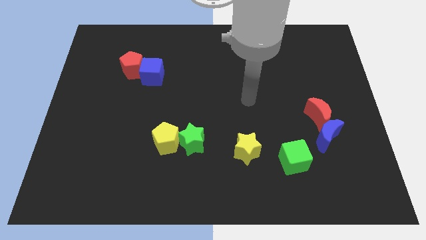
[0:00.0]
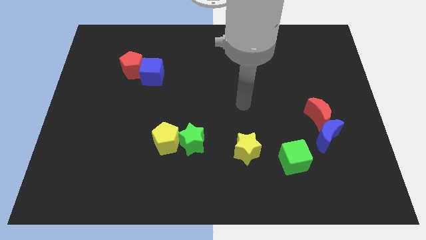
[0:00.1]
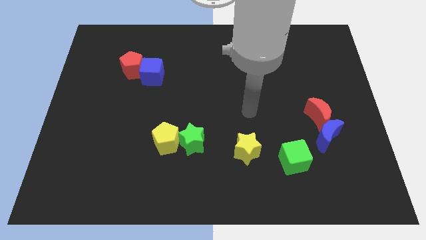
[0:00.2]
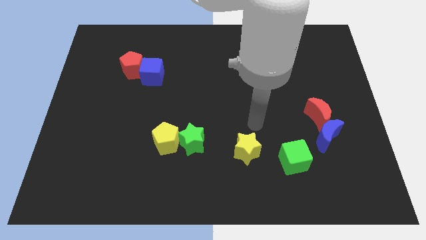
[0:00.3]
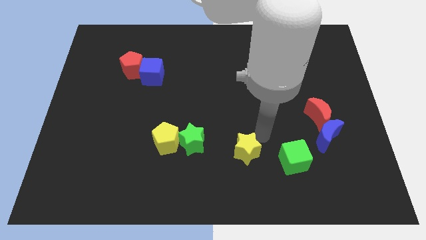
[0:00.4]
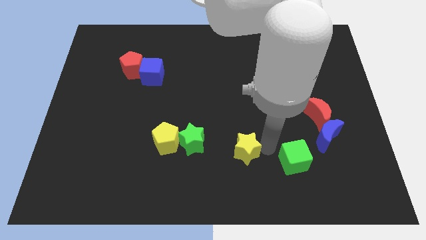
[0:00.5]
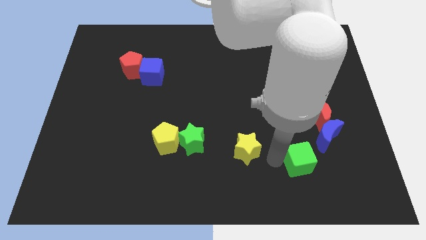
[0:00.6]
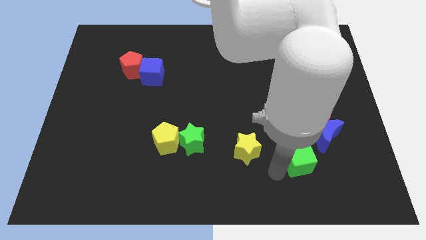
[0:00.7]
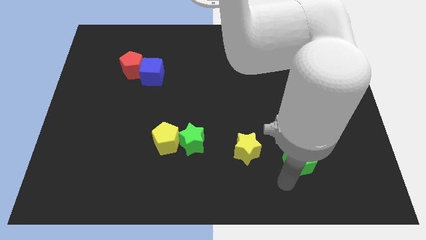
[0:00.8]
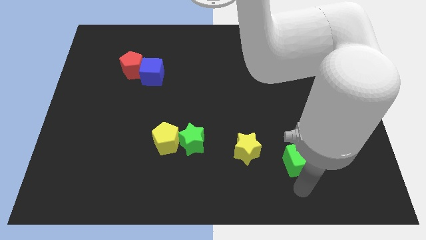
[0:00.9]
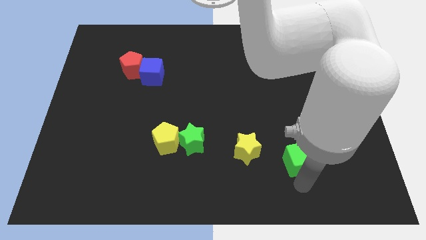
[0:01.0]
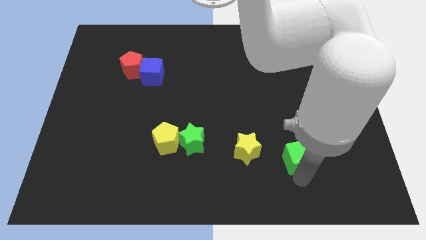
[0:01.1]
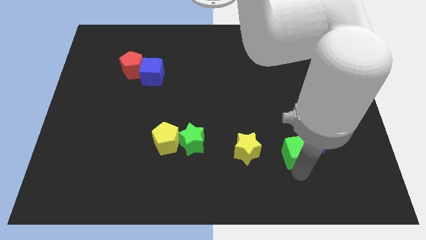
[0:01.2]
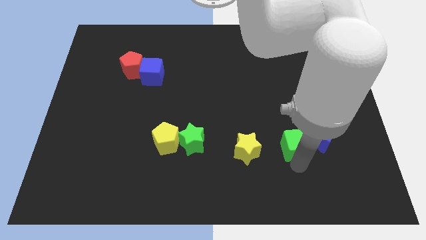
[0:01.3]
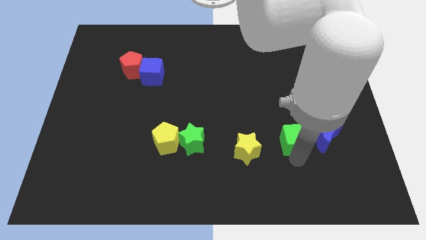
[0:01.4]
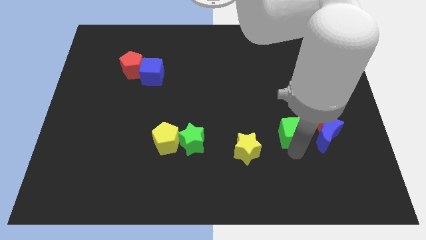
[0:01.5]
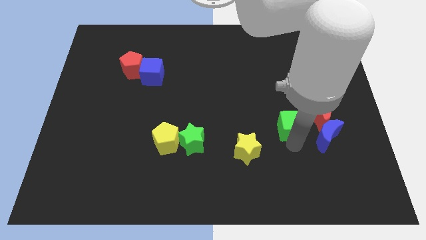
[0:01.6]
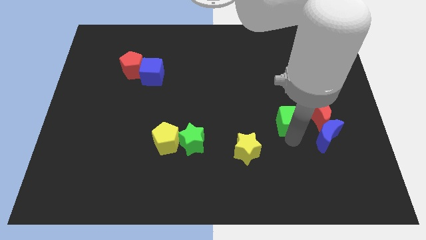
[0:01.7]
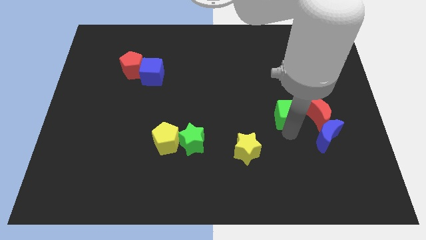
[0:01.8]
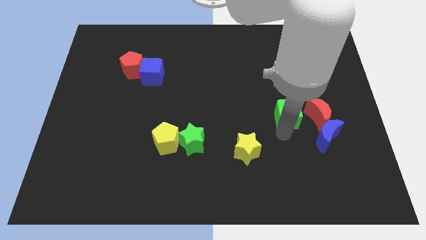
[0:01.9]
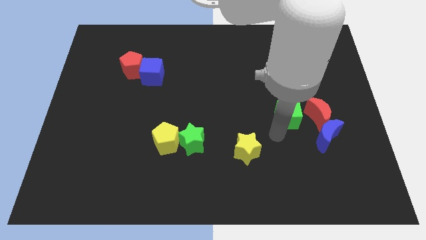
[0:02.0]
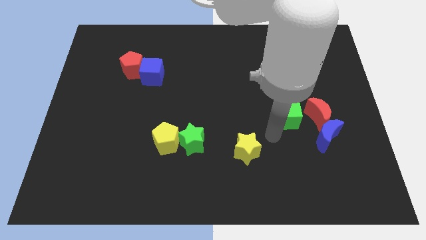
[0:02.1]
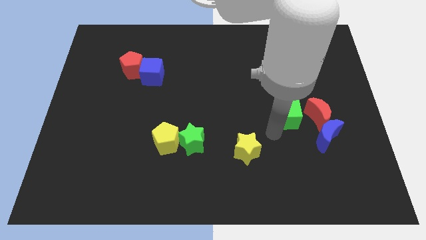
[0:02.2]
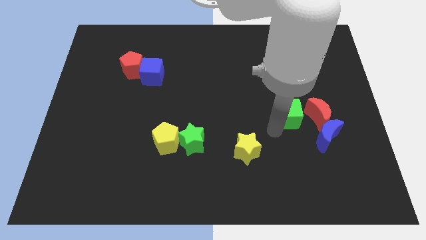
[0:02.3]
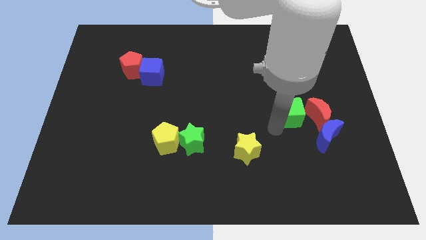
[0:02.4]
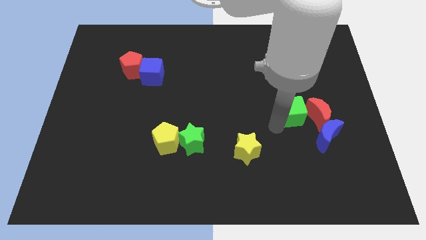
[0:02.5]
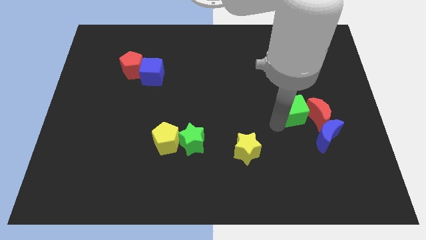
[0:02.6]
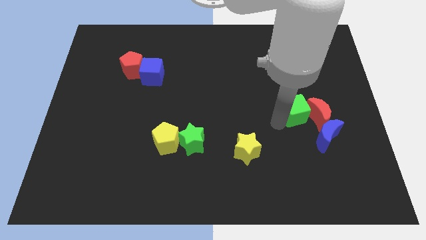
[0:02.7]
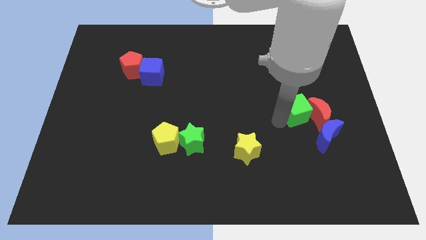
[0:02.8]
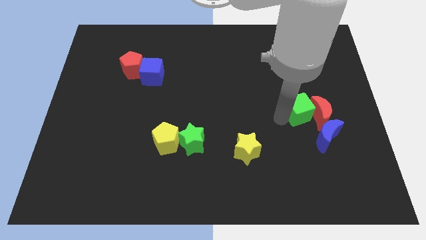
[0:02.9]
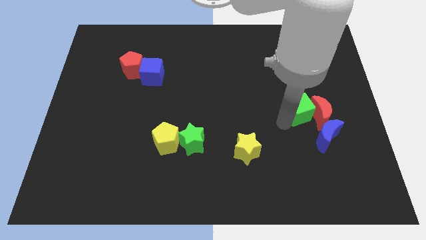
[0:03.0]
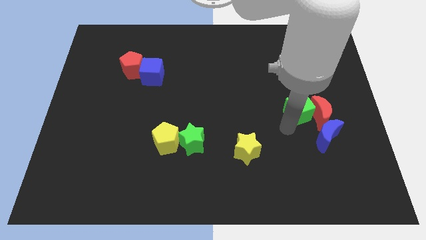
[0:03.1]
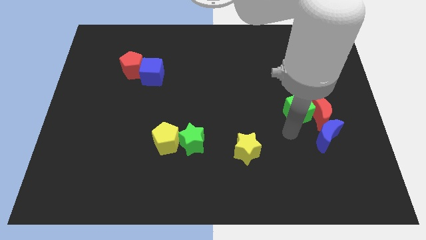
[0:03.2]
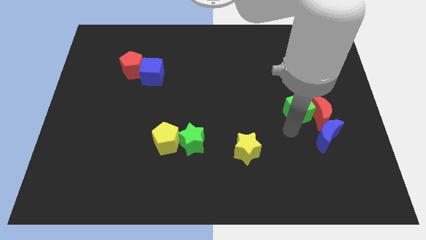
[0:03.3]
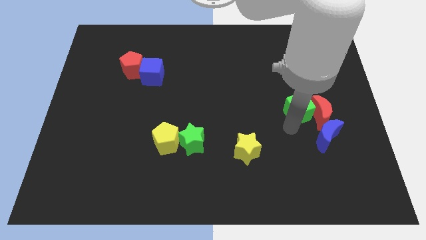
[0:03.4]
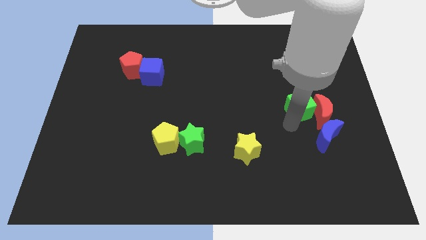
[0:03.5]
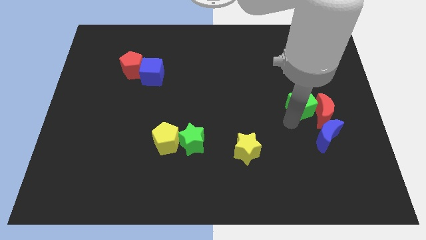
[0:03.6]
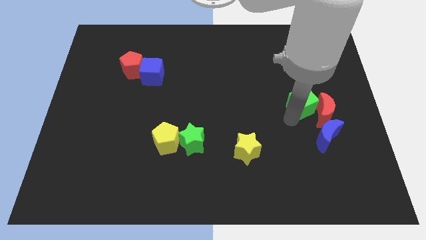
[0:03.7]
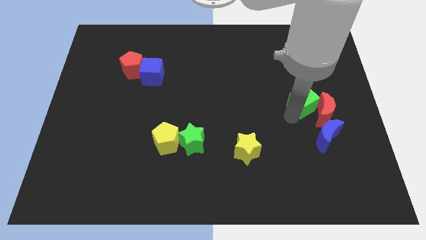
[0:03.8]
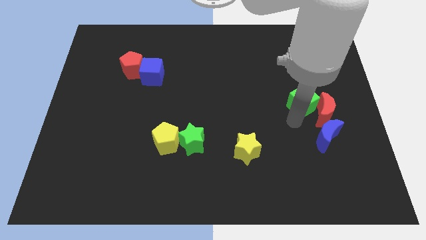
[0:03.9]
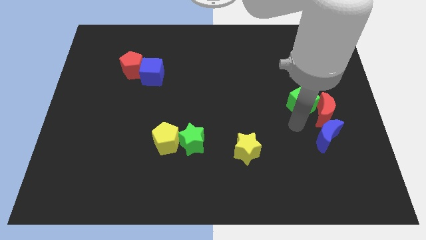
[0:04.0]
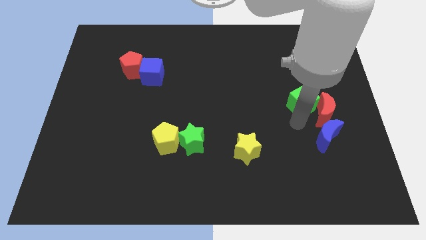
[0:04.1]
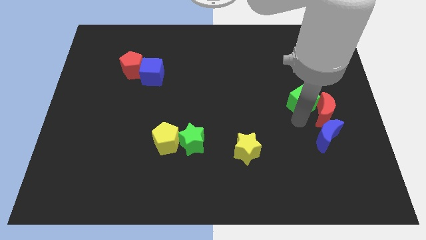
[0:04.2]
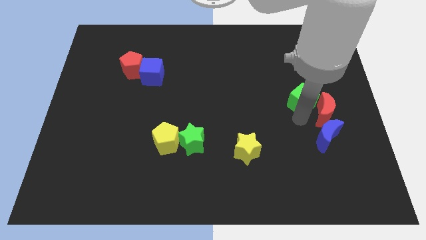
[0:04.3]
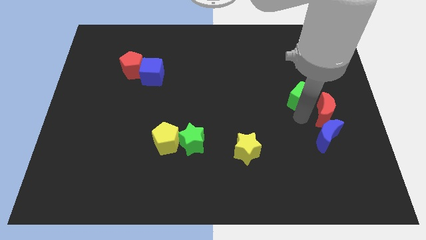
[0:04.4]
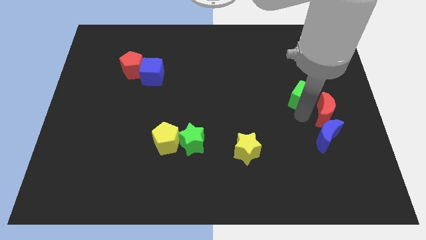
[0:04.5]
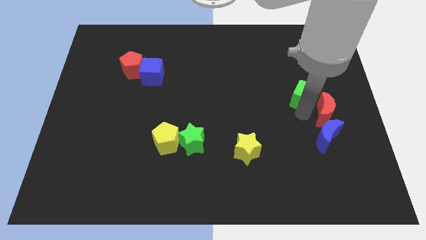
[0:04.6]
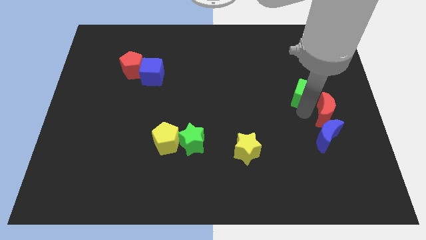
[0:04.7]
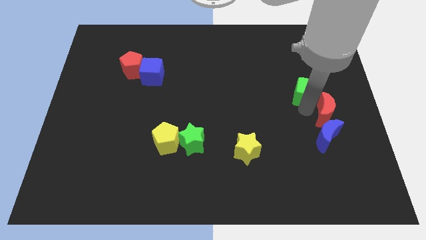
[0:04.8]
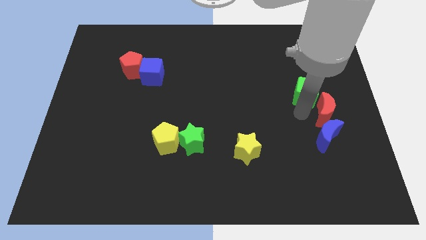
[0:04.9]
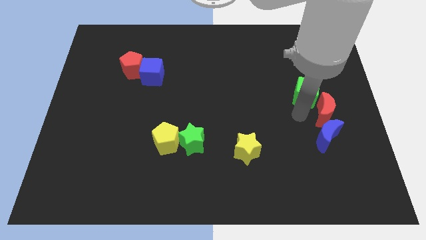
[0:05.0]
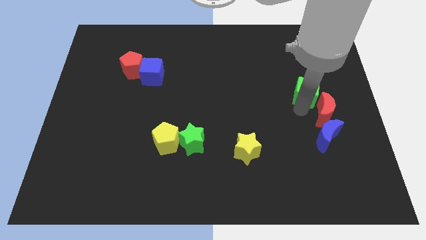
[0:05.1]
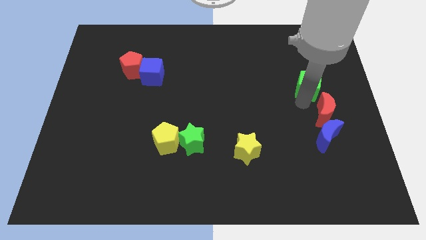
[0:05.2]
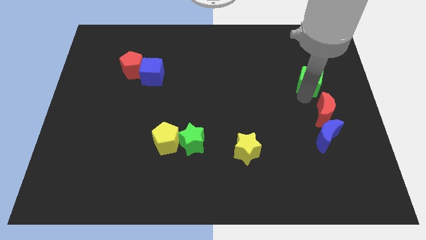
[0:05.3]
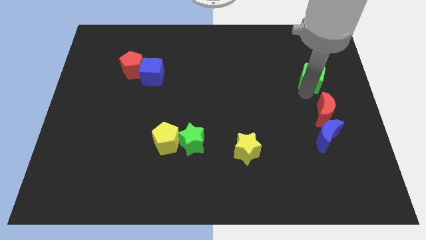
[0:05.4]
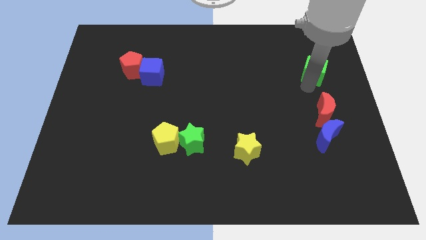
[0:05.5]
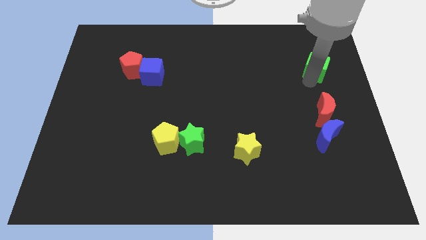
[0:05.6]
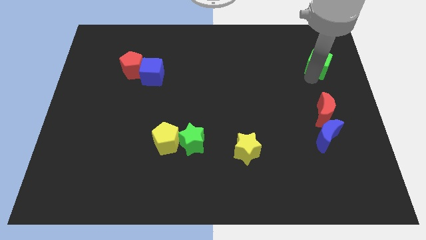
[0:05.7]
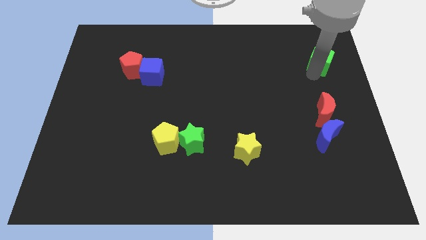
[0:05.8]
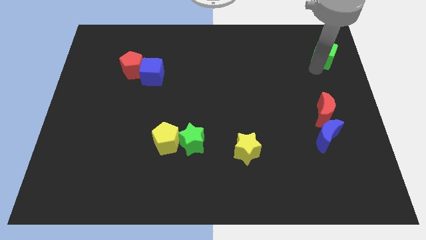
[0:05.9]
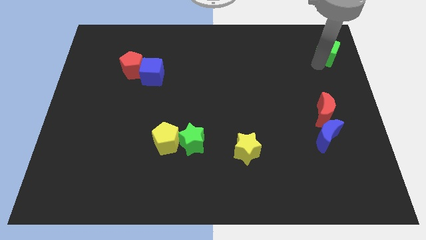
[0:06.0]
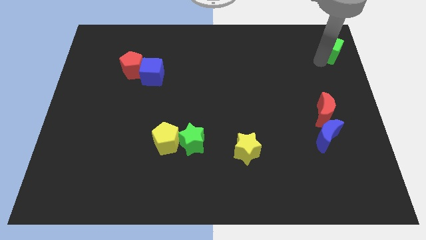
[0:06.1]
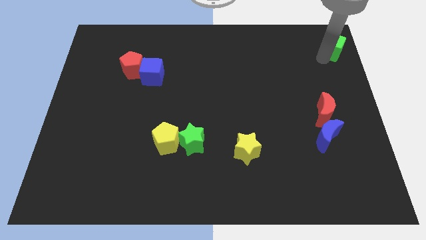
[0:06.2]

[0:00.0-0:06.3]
move the green cube to the top right of the board

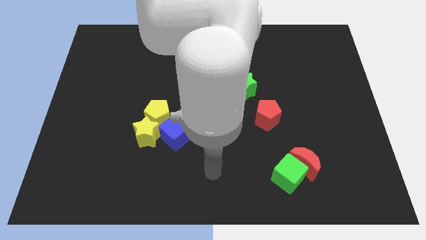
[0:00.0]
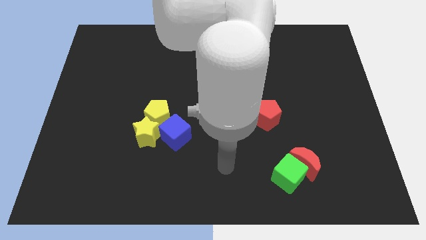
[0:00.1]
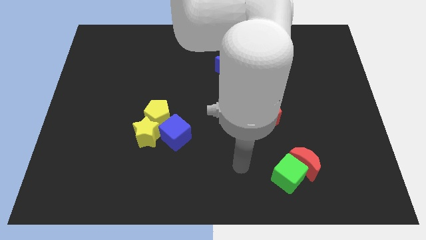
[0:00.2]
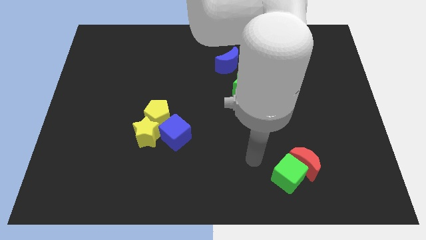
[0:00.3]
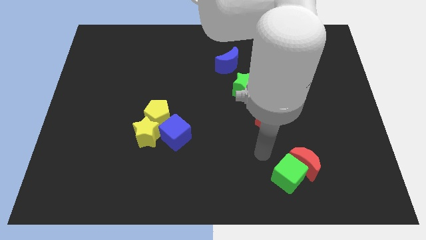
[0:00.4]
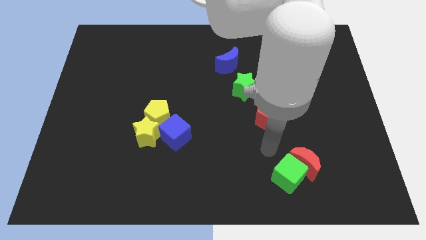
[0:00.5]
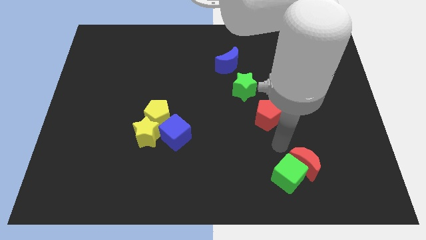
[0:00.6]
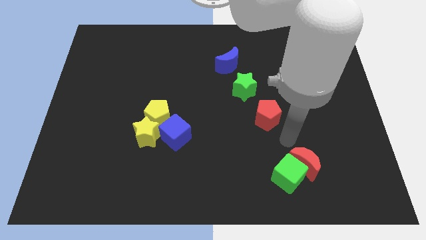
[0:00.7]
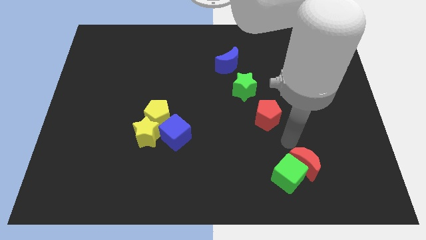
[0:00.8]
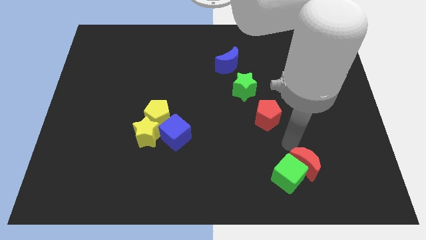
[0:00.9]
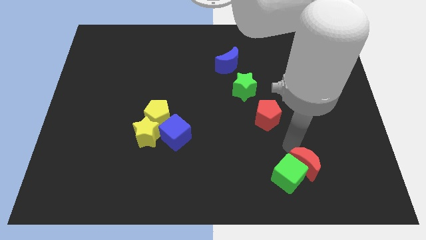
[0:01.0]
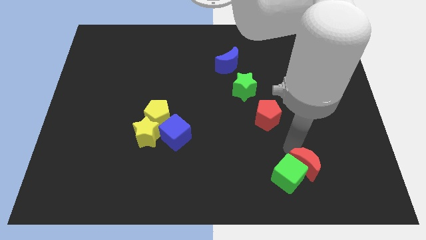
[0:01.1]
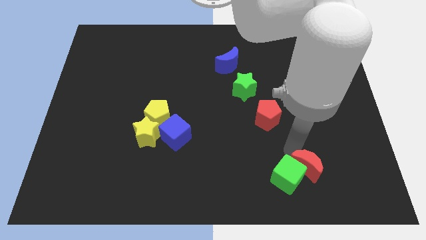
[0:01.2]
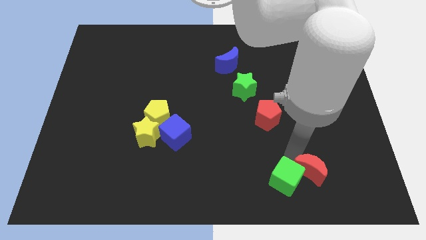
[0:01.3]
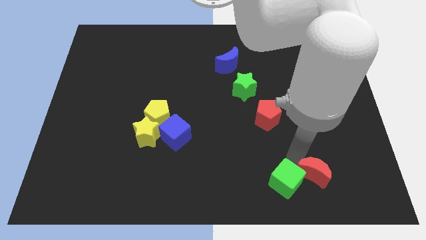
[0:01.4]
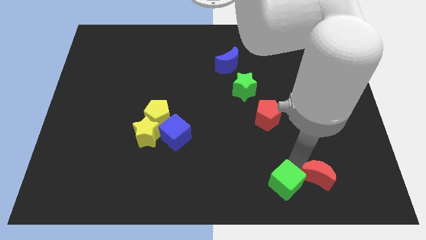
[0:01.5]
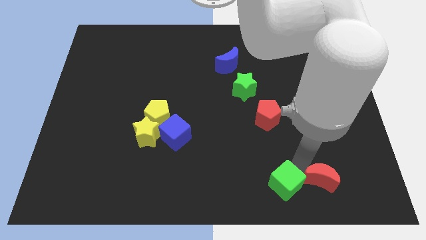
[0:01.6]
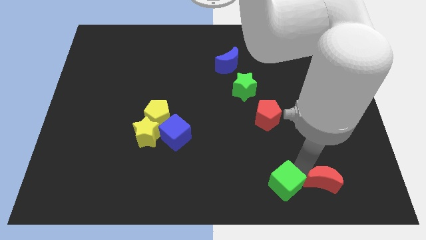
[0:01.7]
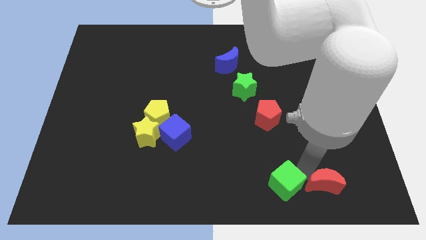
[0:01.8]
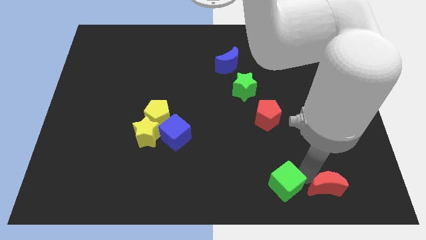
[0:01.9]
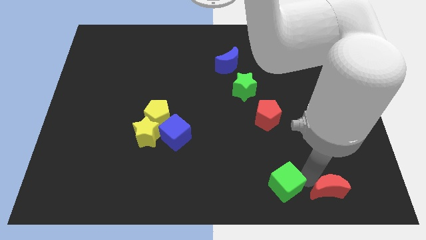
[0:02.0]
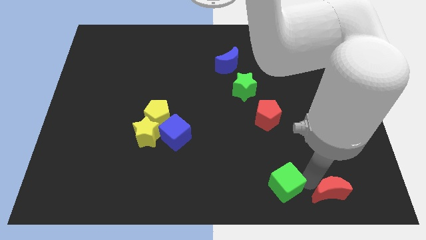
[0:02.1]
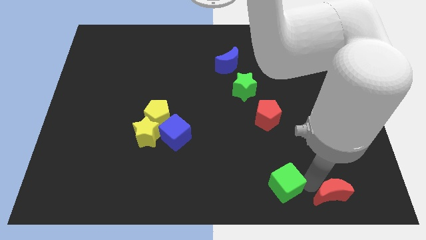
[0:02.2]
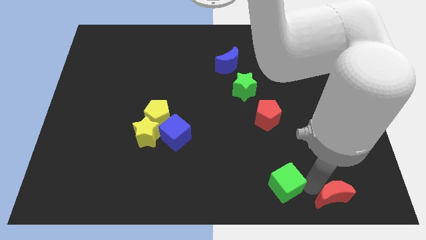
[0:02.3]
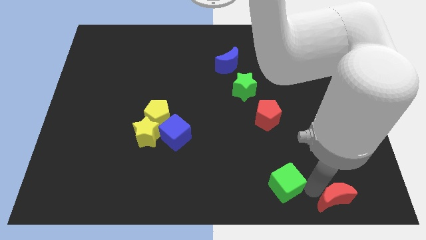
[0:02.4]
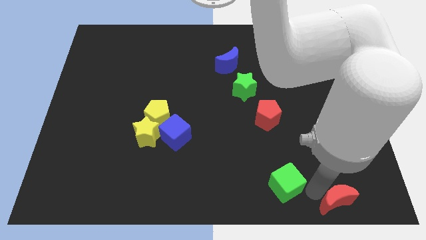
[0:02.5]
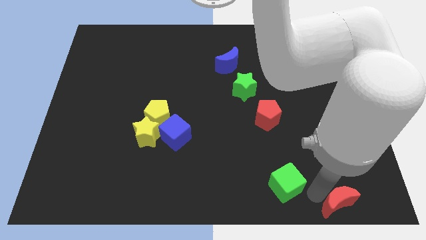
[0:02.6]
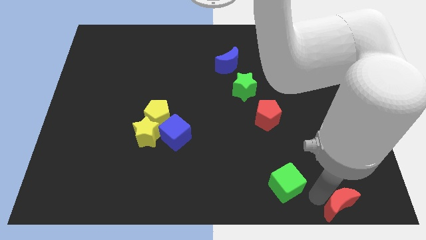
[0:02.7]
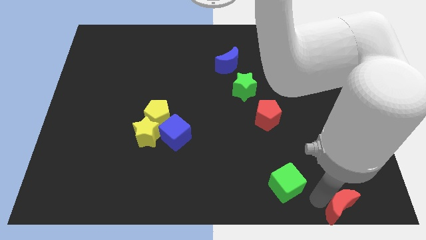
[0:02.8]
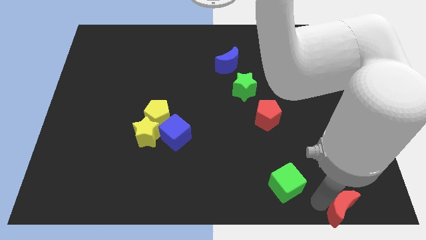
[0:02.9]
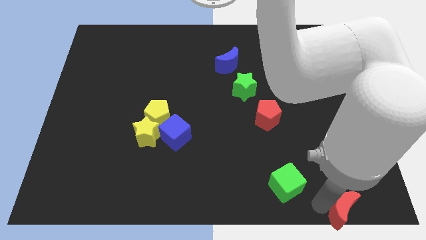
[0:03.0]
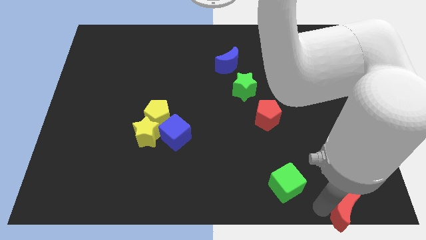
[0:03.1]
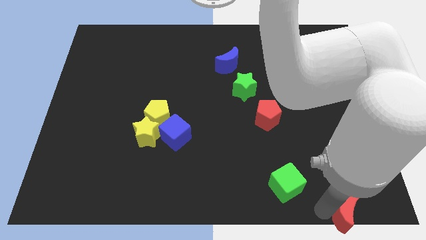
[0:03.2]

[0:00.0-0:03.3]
put the red moon to the bottom right of the board
